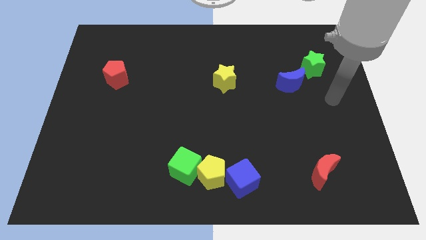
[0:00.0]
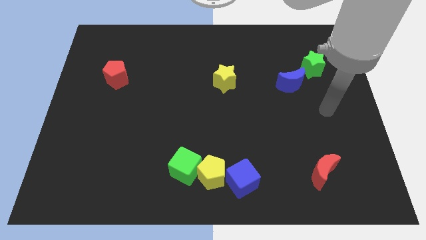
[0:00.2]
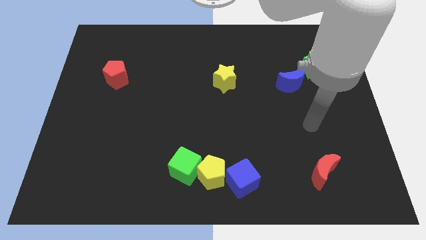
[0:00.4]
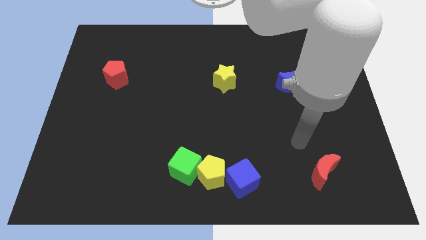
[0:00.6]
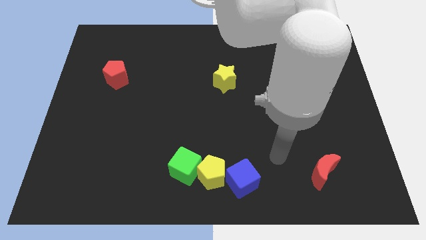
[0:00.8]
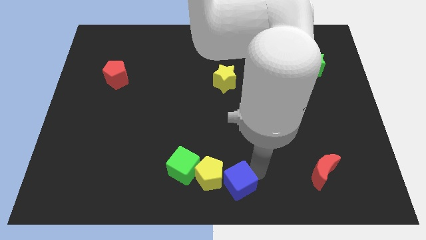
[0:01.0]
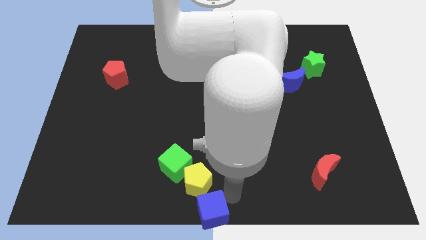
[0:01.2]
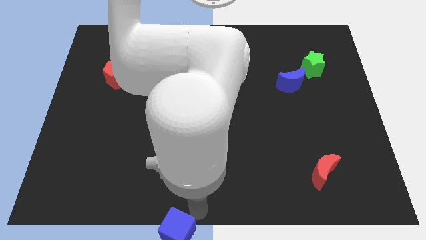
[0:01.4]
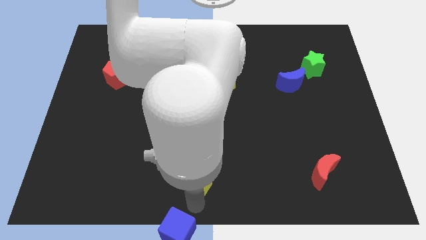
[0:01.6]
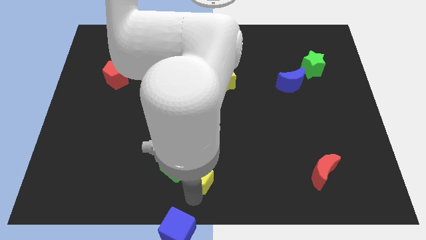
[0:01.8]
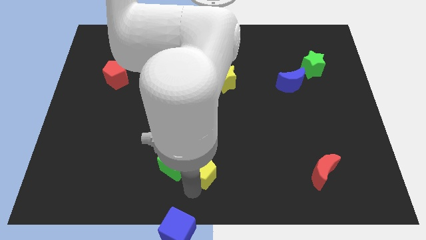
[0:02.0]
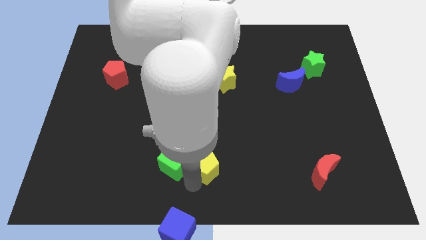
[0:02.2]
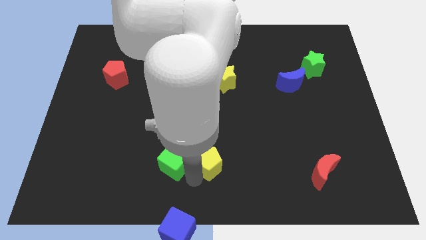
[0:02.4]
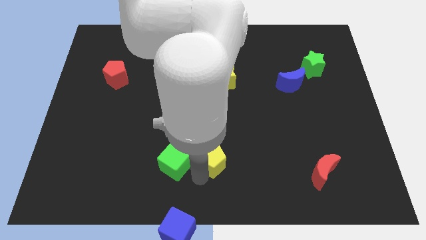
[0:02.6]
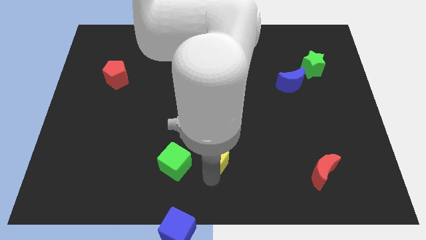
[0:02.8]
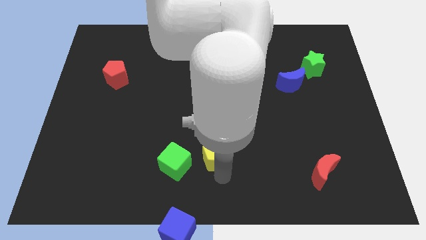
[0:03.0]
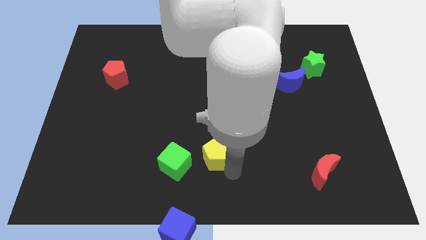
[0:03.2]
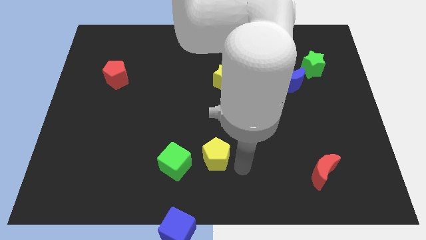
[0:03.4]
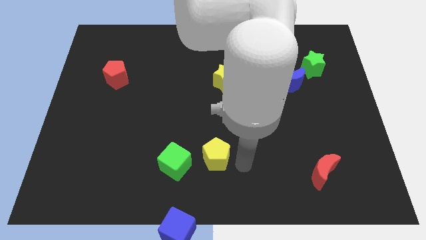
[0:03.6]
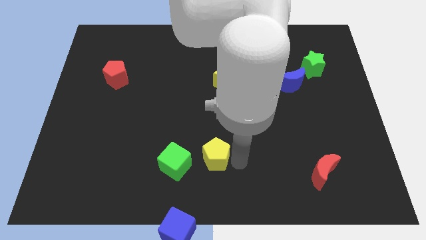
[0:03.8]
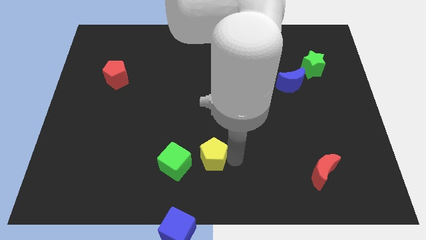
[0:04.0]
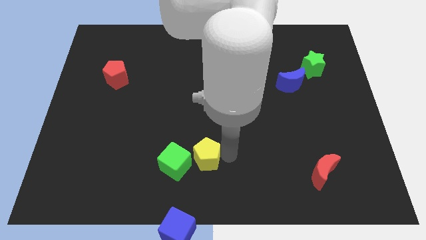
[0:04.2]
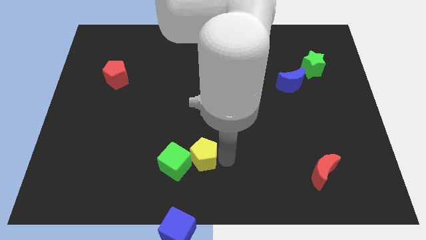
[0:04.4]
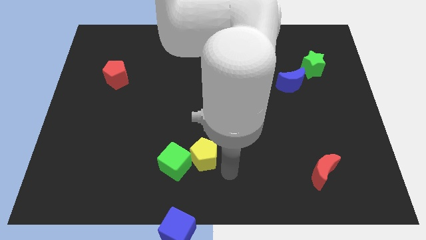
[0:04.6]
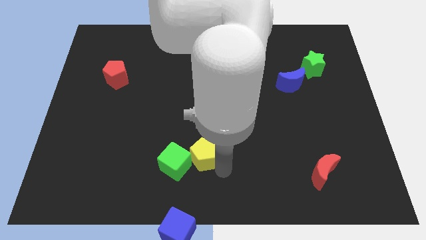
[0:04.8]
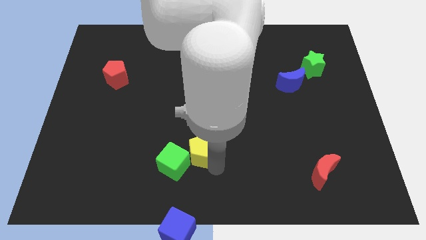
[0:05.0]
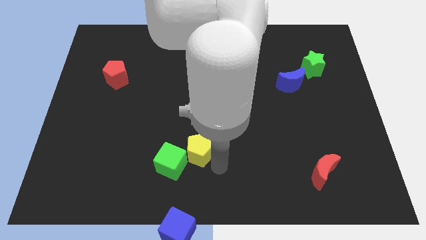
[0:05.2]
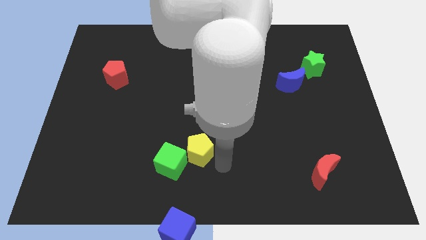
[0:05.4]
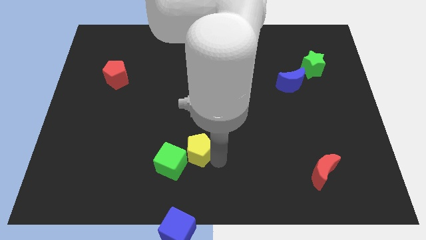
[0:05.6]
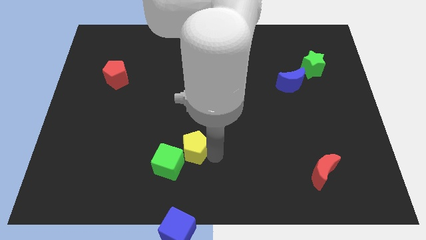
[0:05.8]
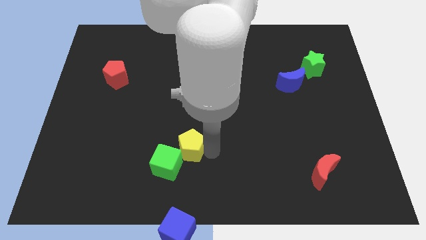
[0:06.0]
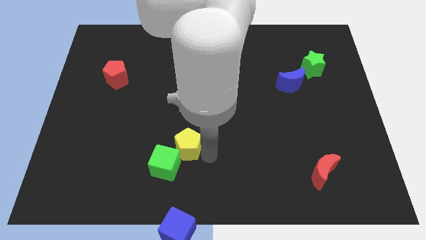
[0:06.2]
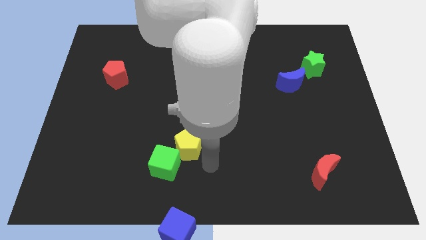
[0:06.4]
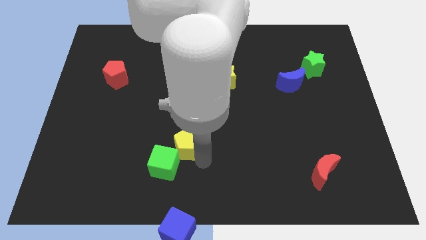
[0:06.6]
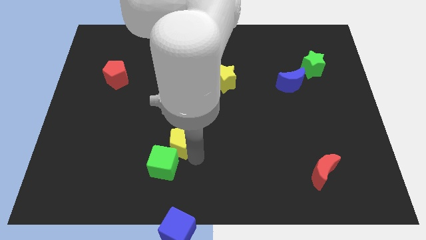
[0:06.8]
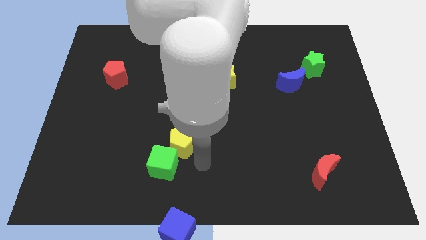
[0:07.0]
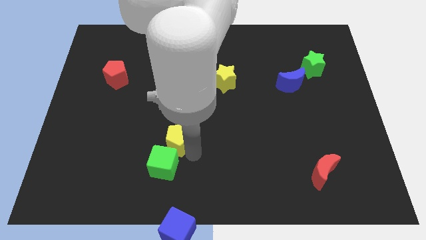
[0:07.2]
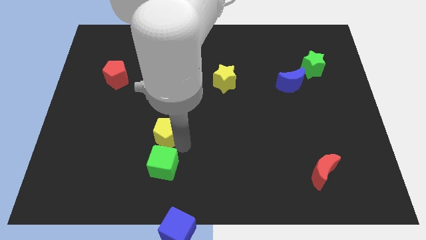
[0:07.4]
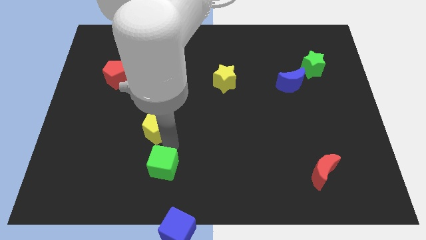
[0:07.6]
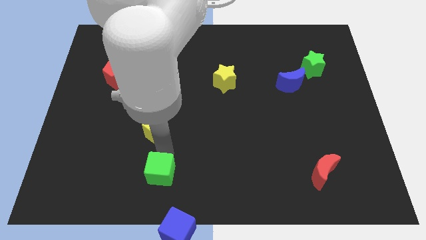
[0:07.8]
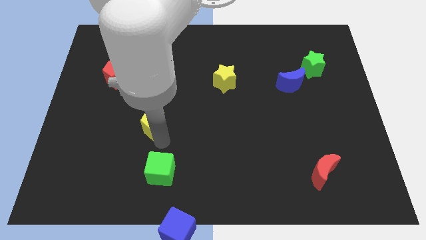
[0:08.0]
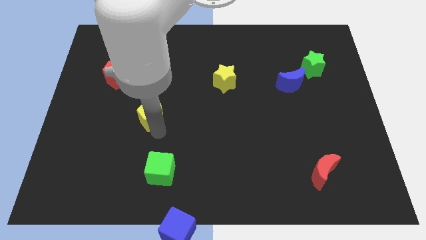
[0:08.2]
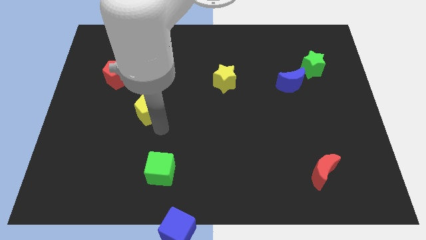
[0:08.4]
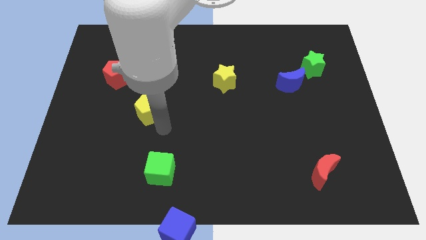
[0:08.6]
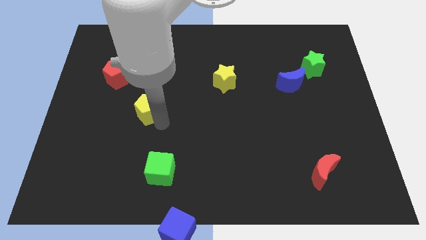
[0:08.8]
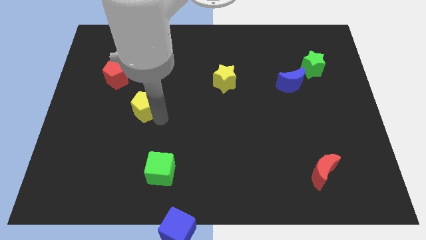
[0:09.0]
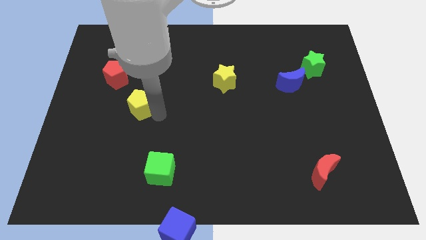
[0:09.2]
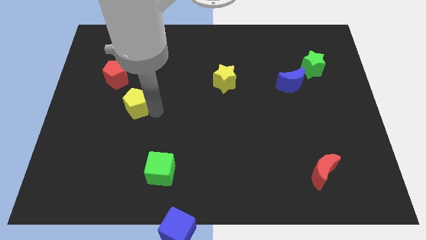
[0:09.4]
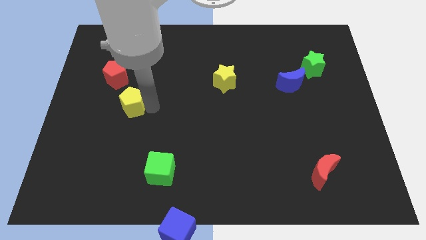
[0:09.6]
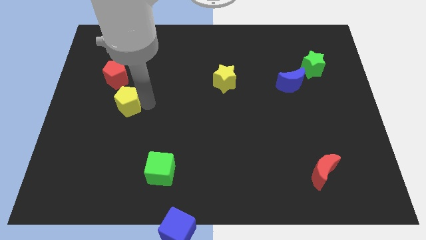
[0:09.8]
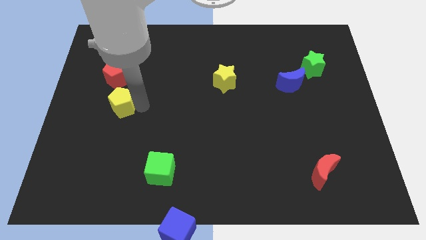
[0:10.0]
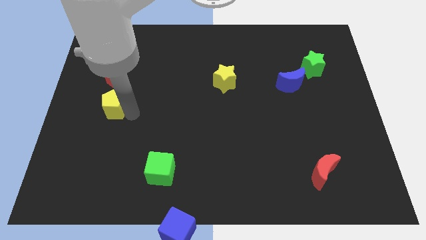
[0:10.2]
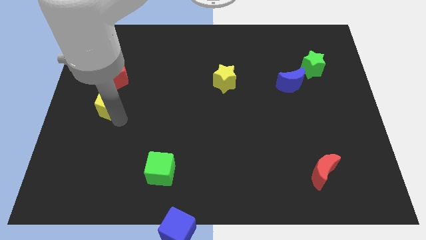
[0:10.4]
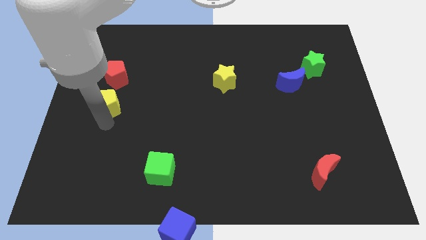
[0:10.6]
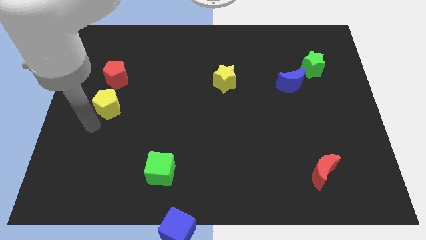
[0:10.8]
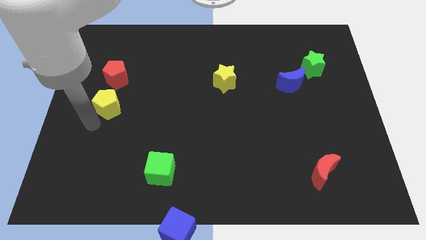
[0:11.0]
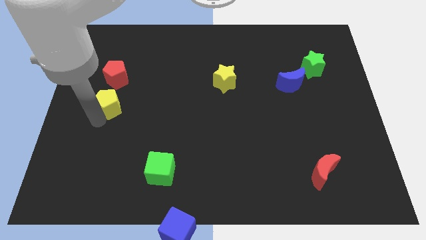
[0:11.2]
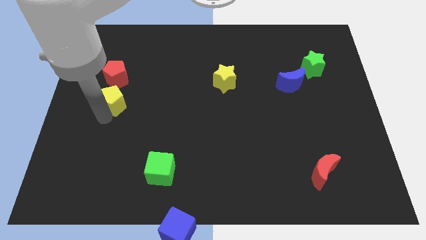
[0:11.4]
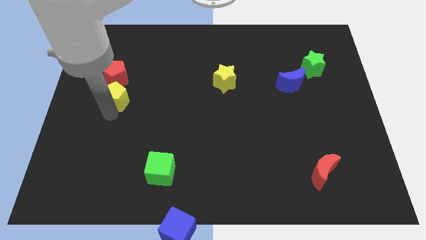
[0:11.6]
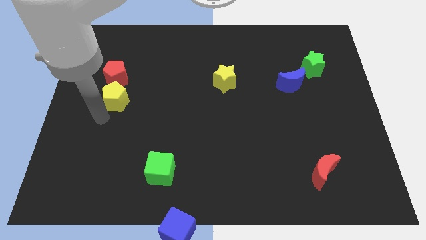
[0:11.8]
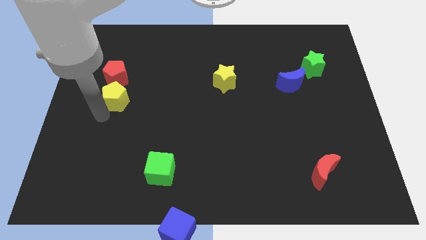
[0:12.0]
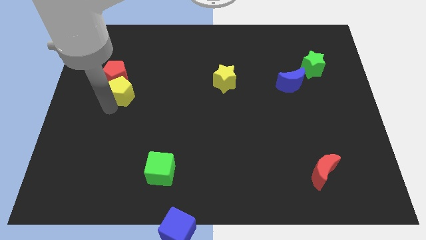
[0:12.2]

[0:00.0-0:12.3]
push the yellow pentagon close to the red pentagon

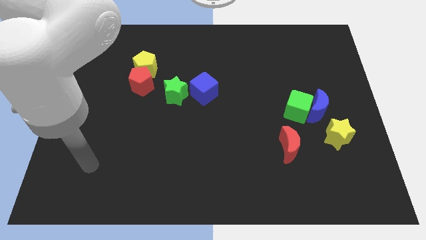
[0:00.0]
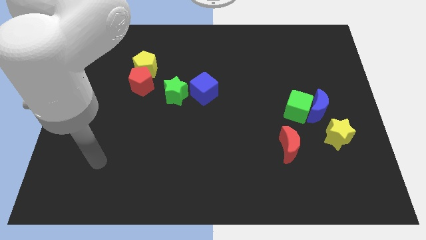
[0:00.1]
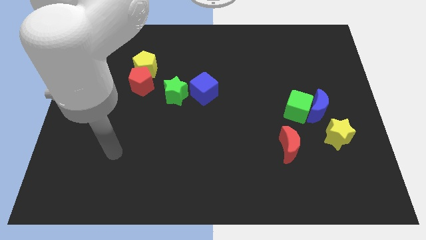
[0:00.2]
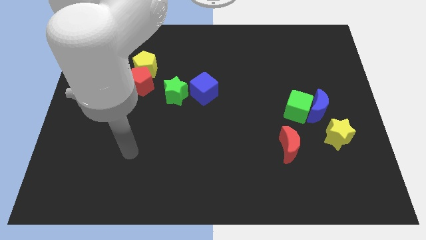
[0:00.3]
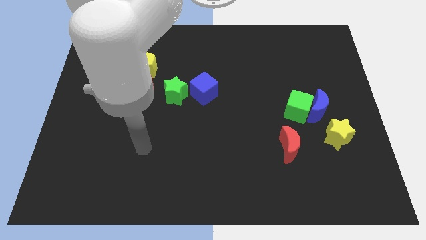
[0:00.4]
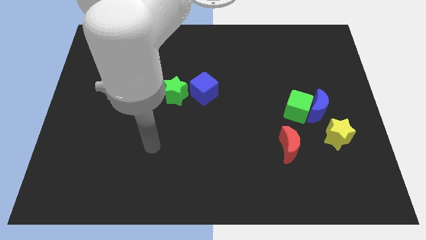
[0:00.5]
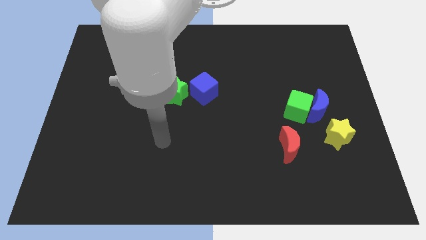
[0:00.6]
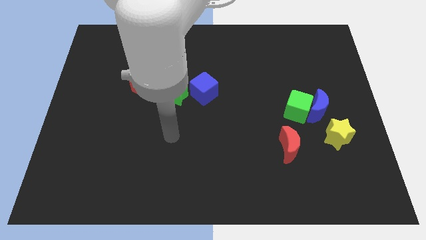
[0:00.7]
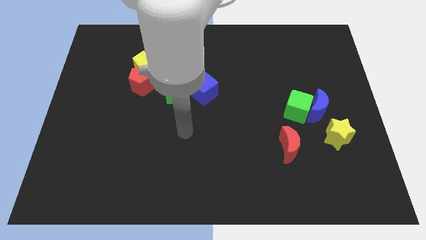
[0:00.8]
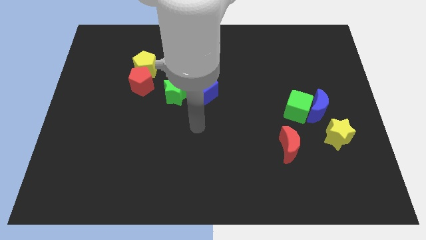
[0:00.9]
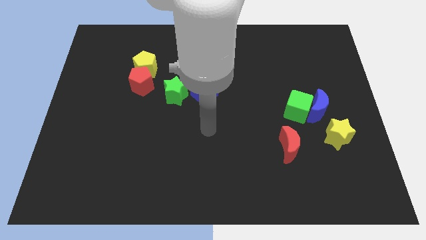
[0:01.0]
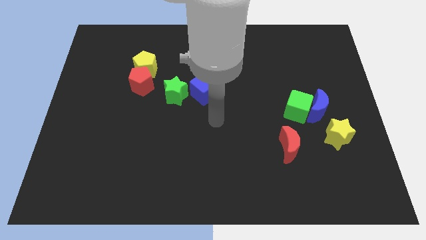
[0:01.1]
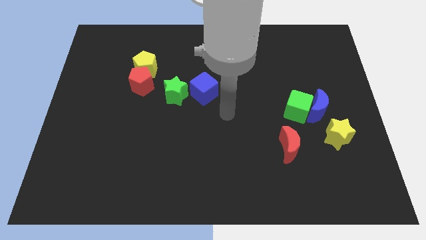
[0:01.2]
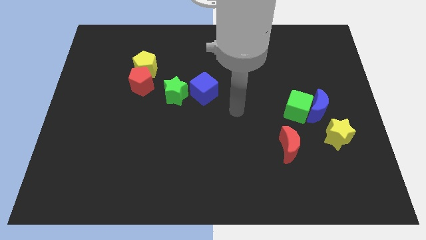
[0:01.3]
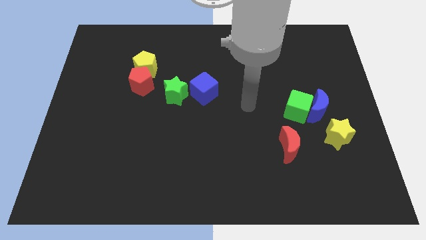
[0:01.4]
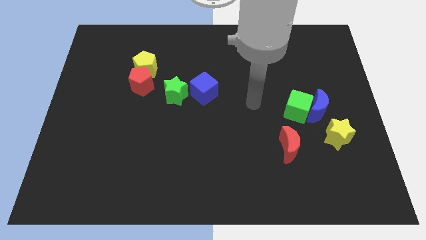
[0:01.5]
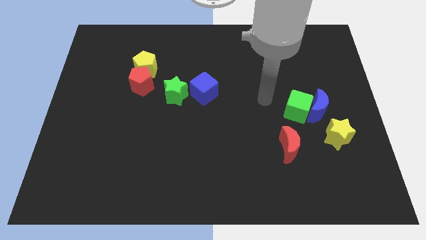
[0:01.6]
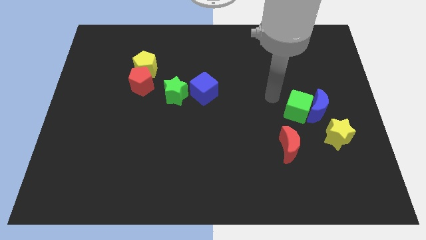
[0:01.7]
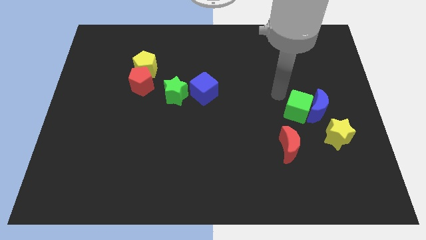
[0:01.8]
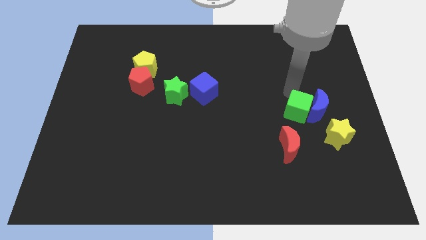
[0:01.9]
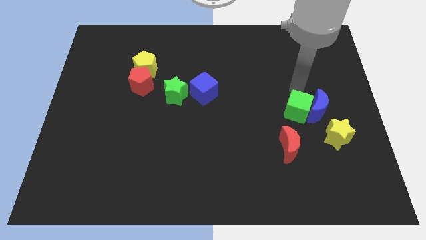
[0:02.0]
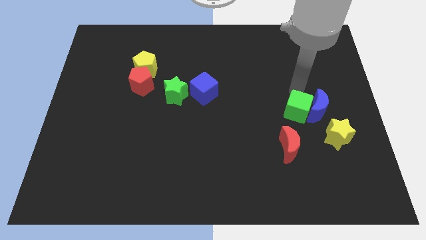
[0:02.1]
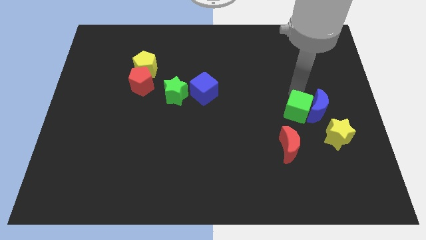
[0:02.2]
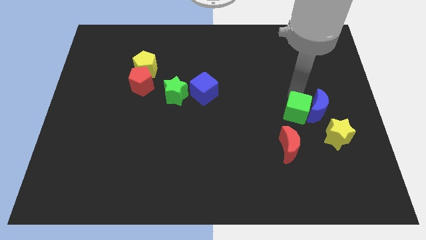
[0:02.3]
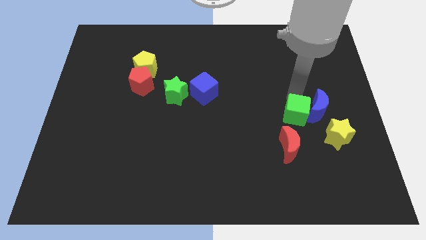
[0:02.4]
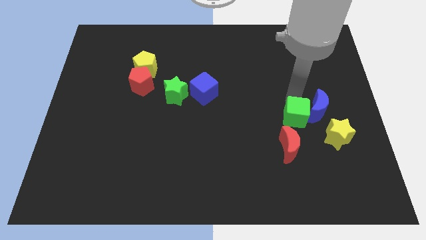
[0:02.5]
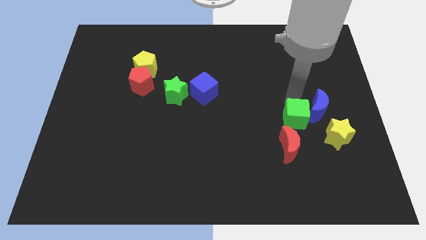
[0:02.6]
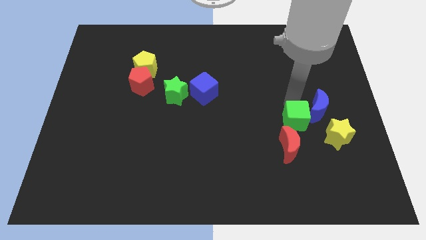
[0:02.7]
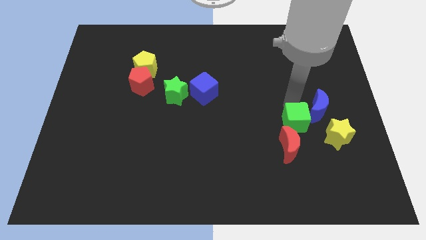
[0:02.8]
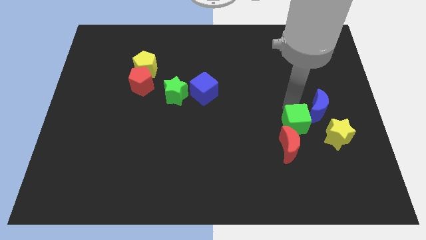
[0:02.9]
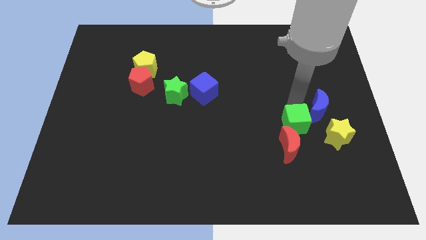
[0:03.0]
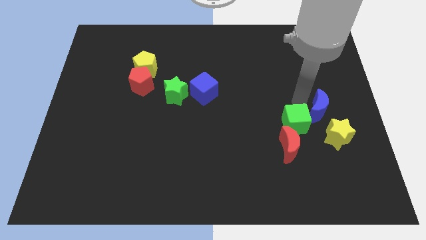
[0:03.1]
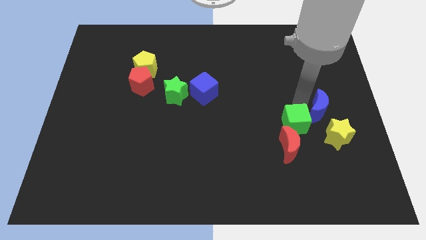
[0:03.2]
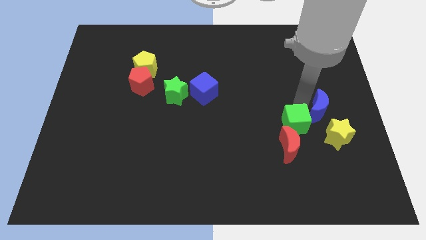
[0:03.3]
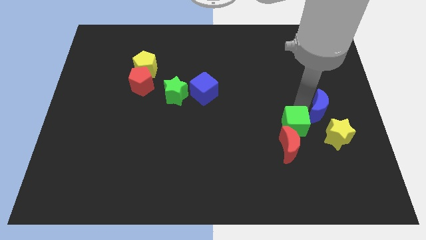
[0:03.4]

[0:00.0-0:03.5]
put the green cube close to the red moon
